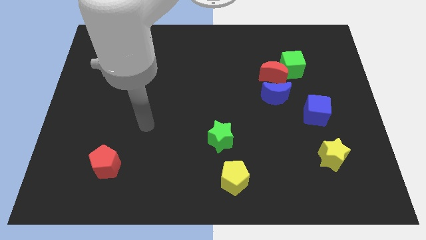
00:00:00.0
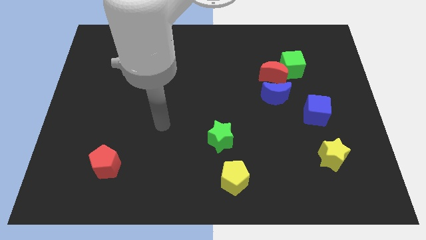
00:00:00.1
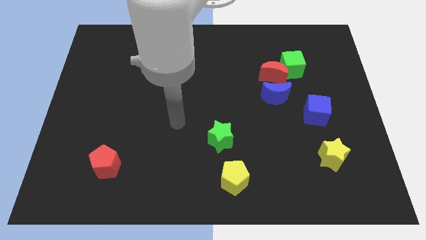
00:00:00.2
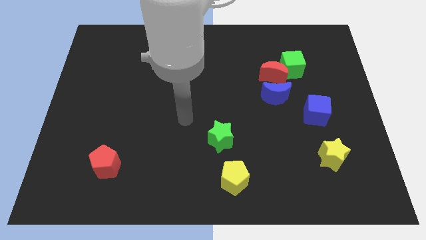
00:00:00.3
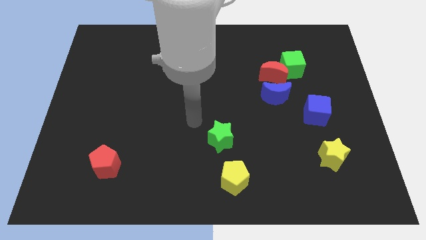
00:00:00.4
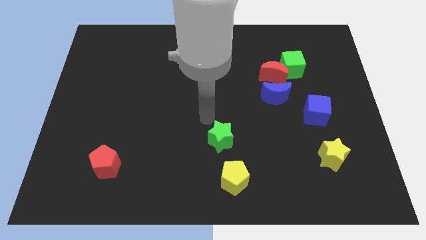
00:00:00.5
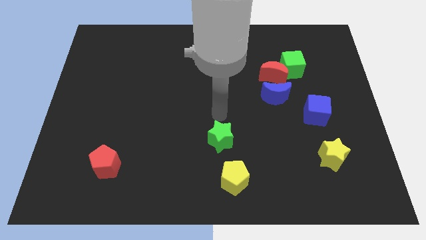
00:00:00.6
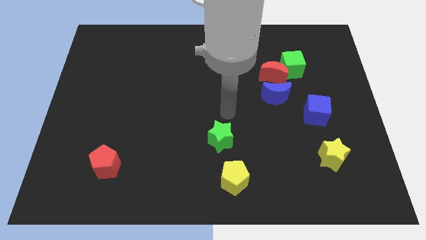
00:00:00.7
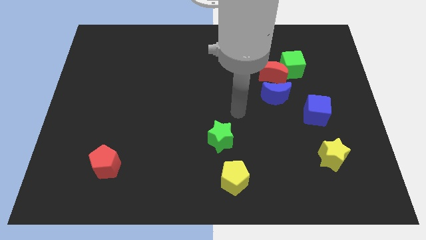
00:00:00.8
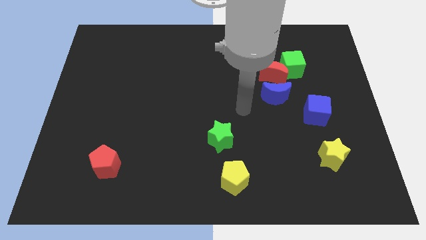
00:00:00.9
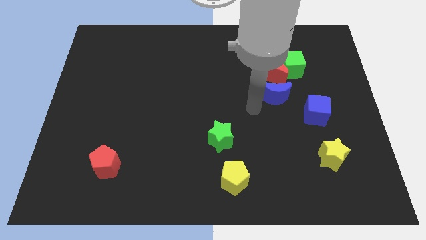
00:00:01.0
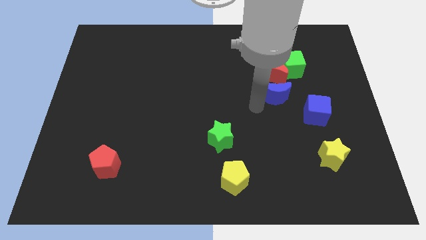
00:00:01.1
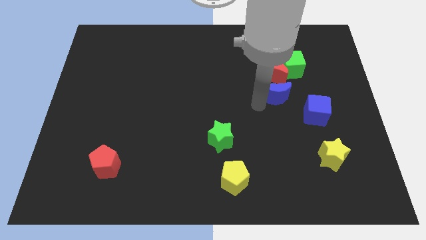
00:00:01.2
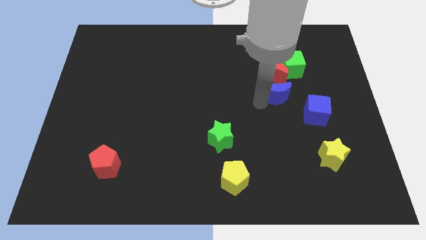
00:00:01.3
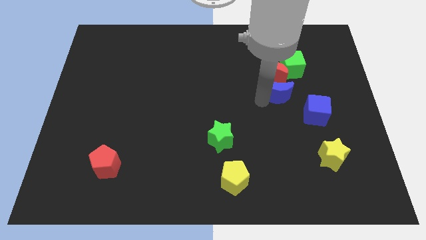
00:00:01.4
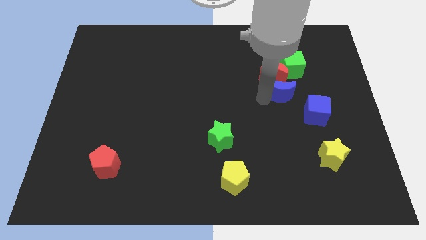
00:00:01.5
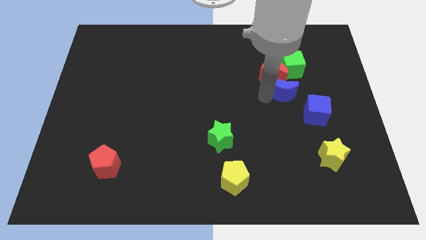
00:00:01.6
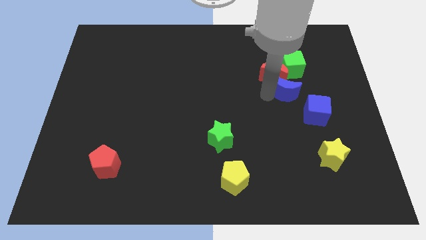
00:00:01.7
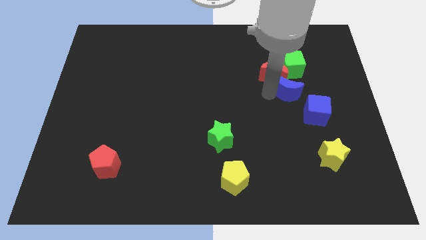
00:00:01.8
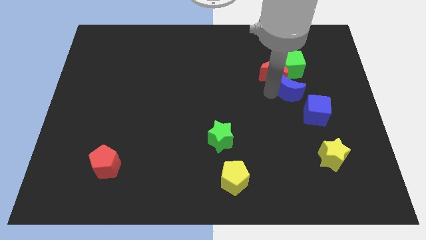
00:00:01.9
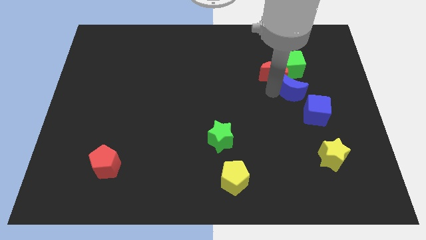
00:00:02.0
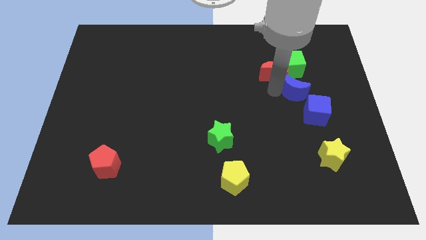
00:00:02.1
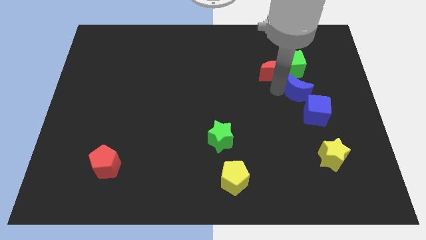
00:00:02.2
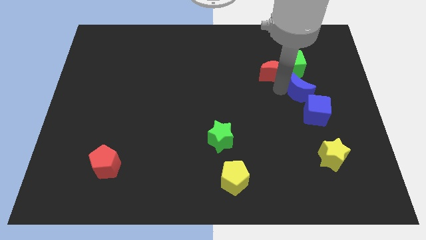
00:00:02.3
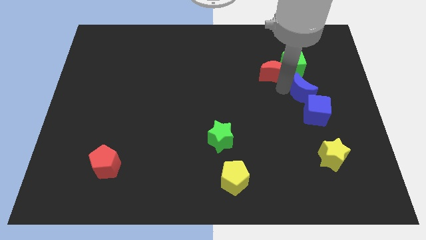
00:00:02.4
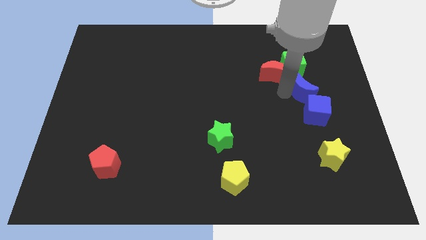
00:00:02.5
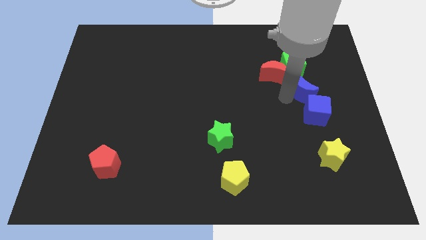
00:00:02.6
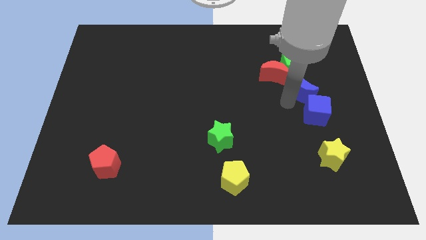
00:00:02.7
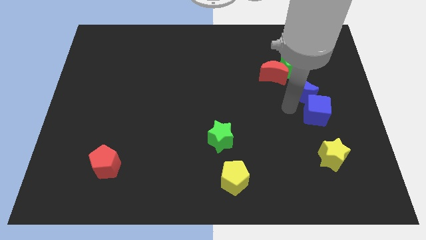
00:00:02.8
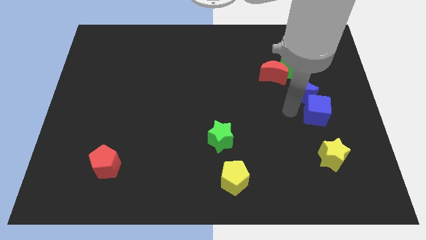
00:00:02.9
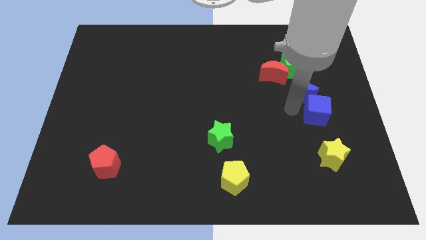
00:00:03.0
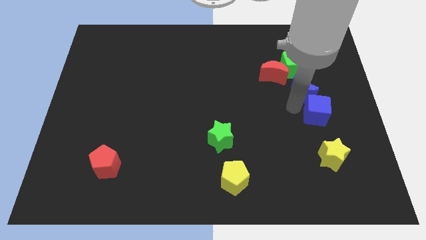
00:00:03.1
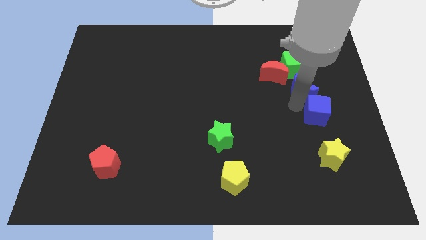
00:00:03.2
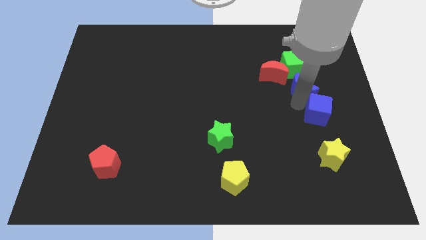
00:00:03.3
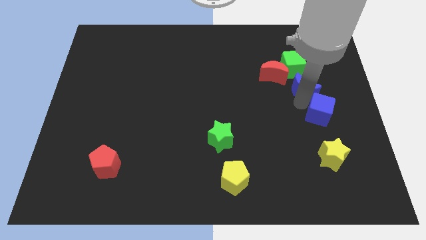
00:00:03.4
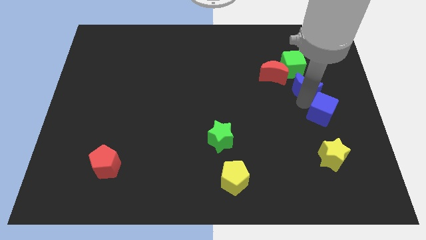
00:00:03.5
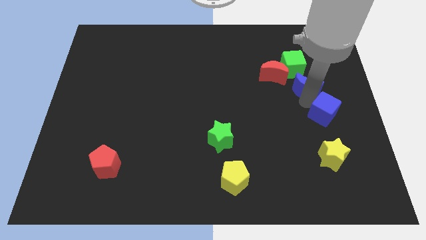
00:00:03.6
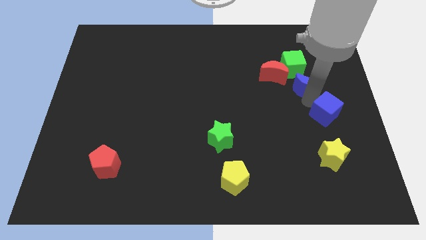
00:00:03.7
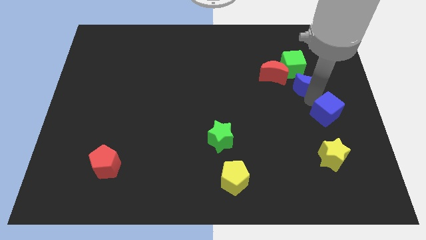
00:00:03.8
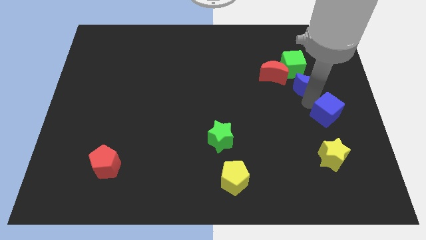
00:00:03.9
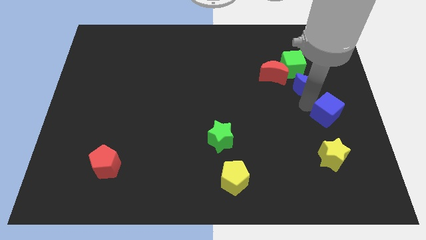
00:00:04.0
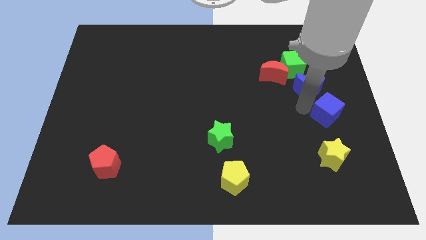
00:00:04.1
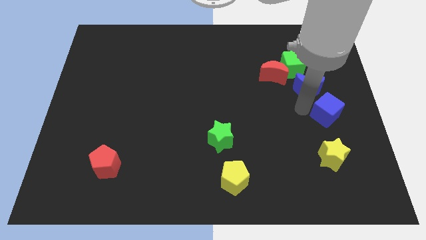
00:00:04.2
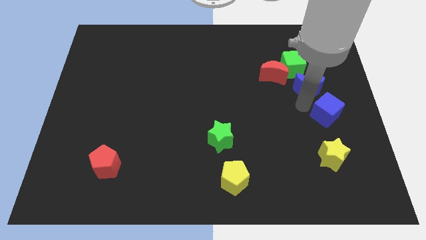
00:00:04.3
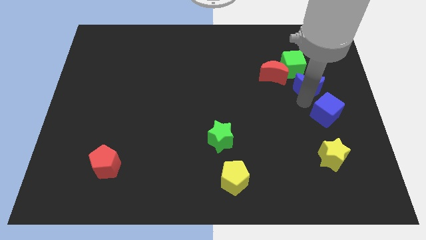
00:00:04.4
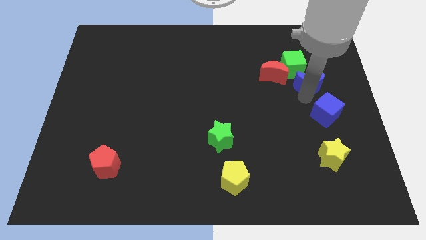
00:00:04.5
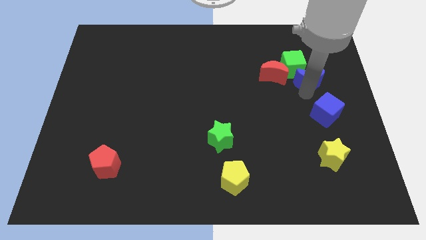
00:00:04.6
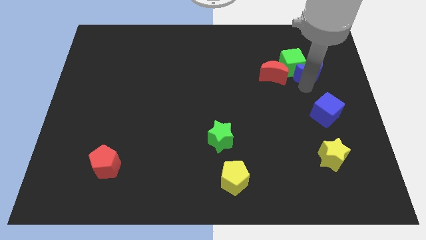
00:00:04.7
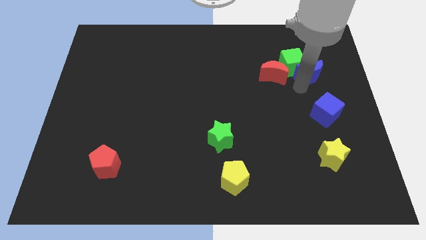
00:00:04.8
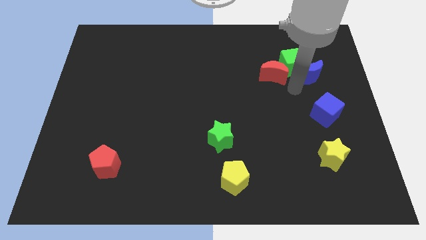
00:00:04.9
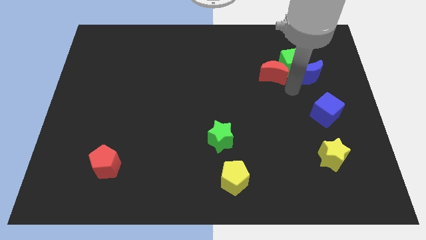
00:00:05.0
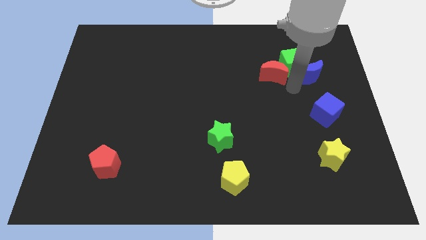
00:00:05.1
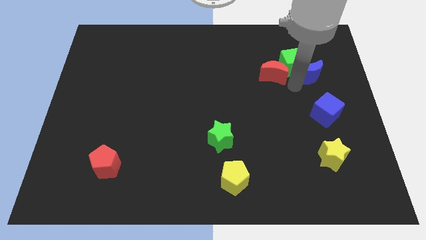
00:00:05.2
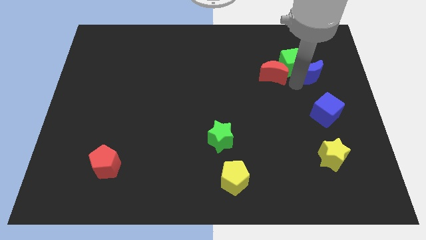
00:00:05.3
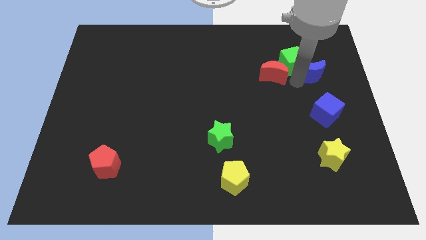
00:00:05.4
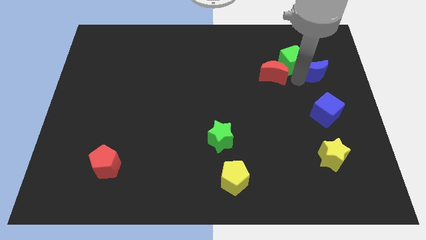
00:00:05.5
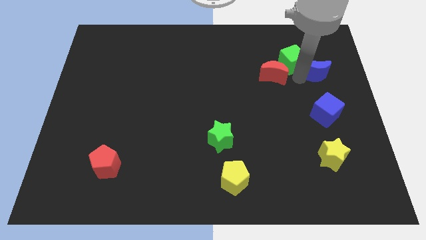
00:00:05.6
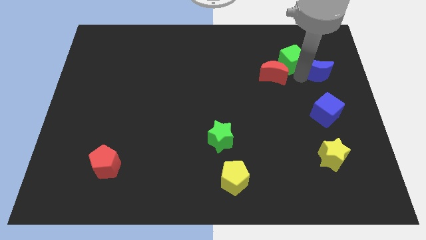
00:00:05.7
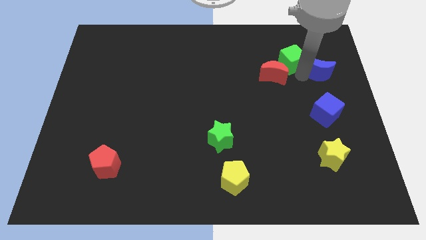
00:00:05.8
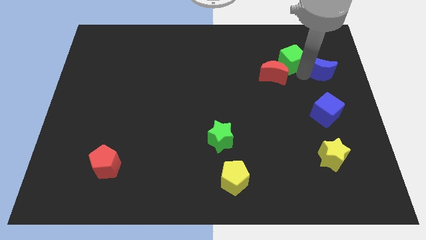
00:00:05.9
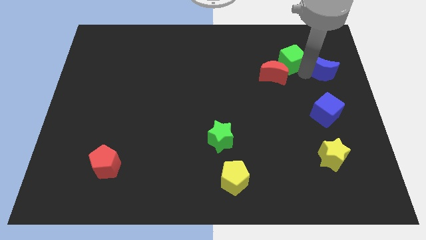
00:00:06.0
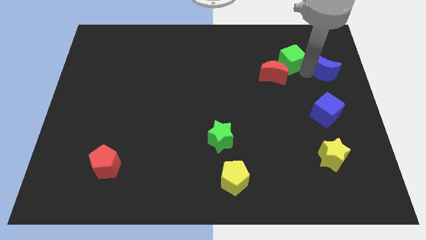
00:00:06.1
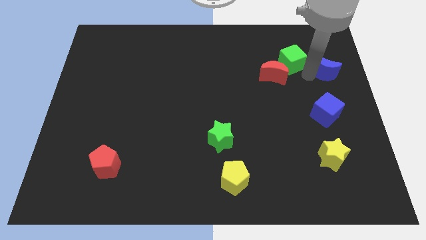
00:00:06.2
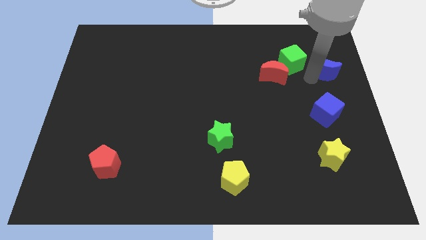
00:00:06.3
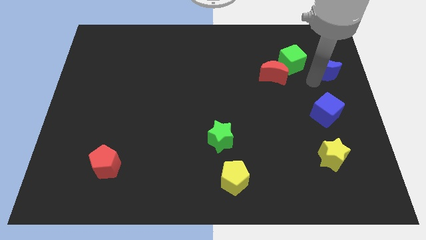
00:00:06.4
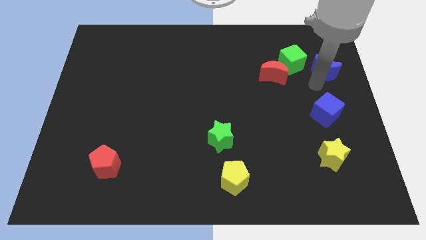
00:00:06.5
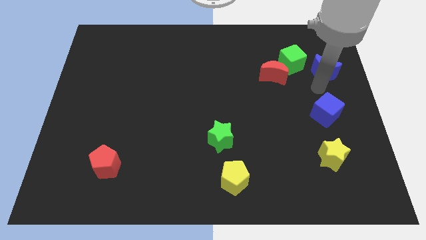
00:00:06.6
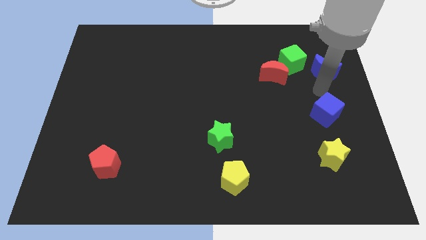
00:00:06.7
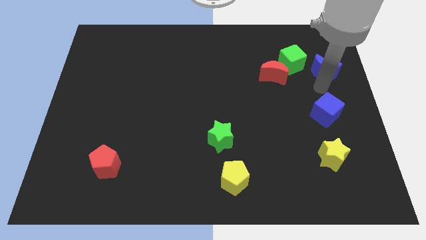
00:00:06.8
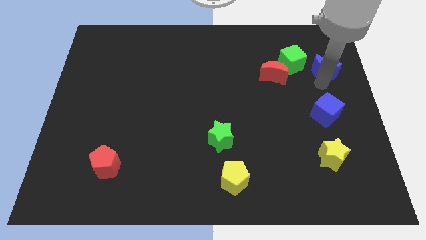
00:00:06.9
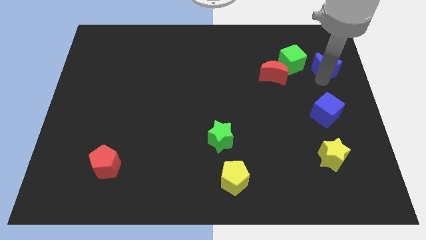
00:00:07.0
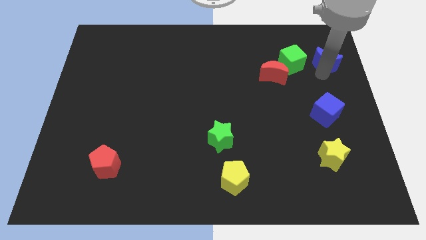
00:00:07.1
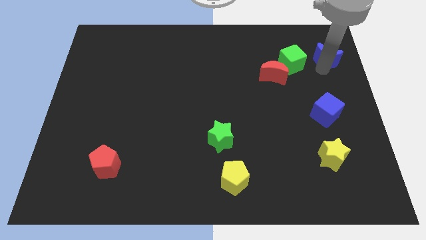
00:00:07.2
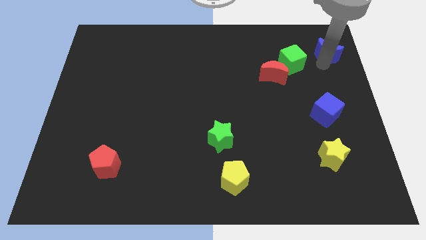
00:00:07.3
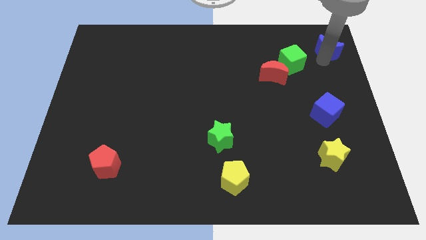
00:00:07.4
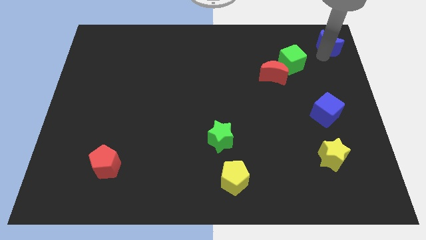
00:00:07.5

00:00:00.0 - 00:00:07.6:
slide the blue moon to the upper right corner
